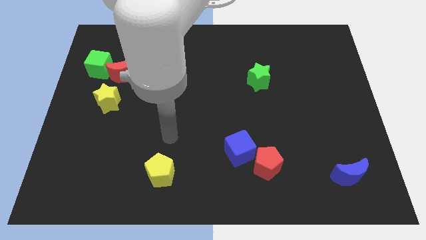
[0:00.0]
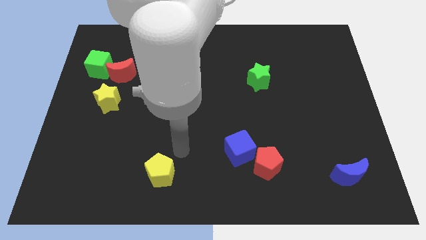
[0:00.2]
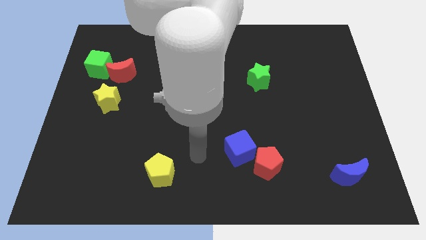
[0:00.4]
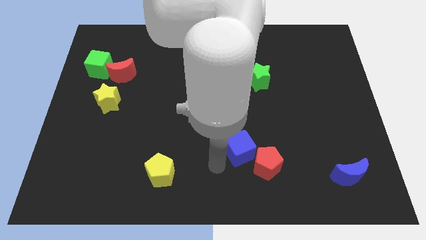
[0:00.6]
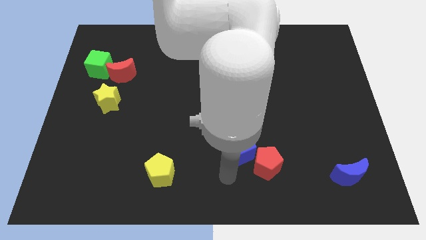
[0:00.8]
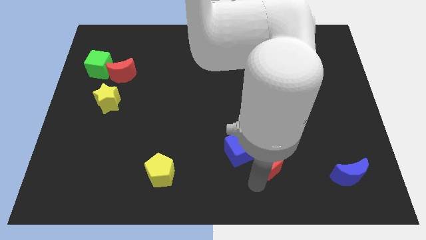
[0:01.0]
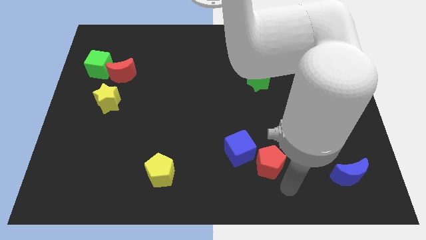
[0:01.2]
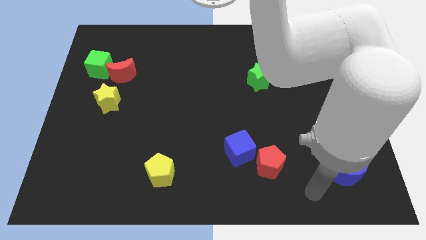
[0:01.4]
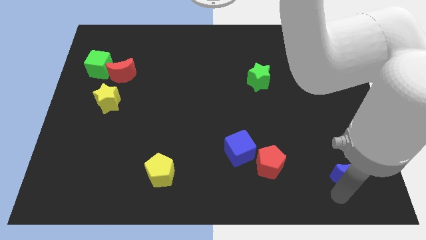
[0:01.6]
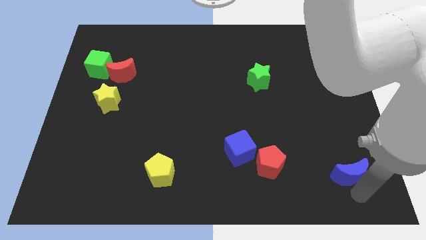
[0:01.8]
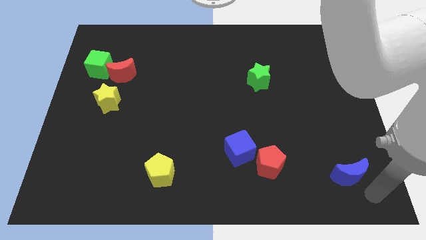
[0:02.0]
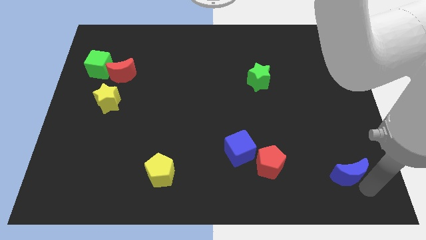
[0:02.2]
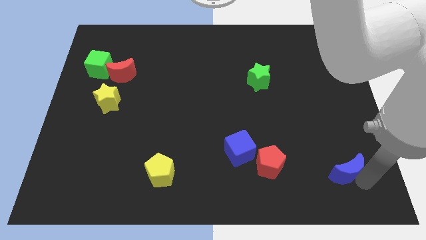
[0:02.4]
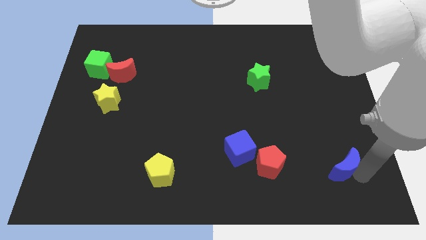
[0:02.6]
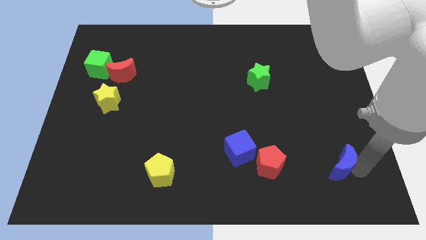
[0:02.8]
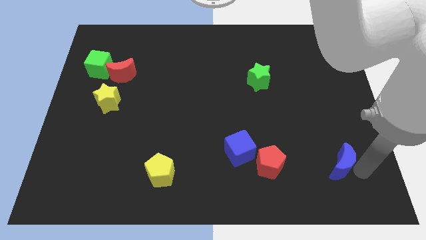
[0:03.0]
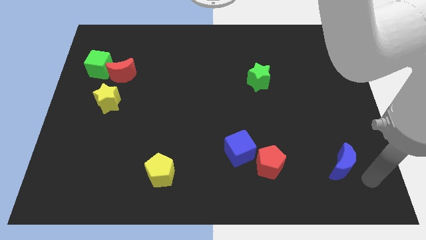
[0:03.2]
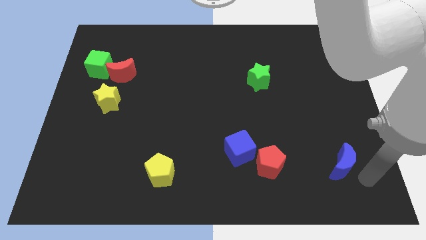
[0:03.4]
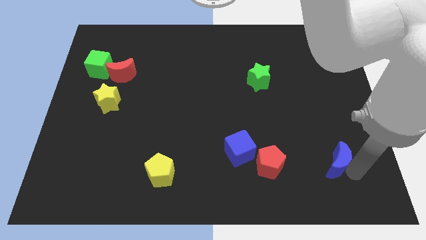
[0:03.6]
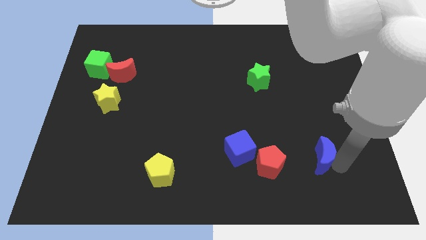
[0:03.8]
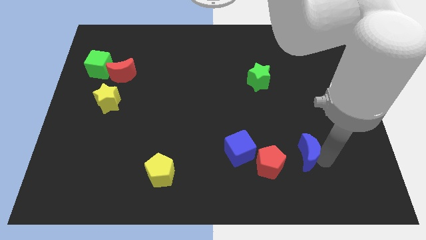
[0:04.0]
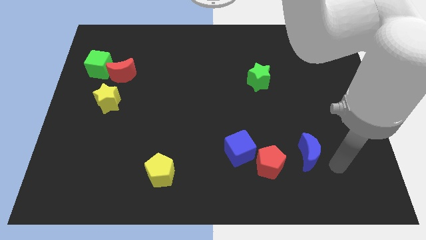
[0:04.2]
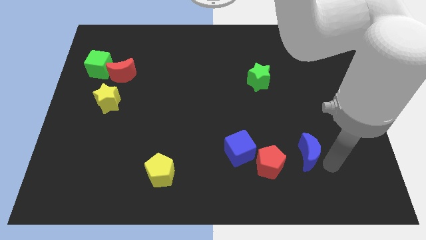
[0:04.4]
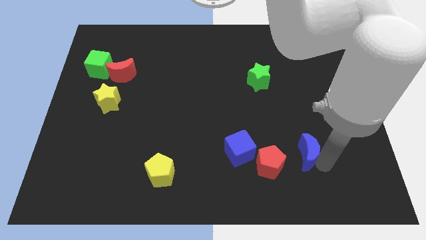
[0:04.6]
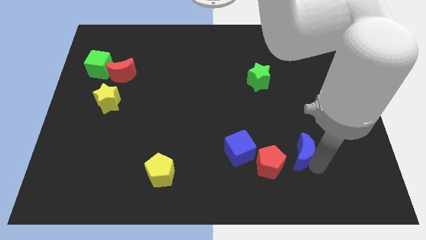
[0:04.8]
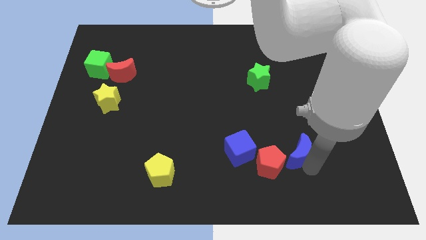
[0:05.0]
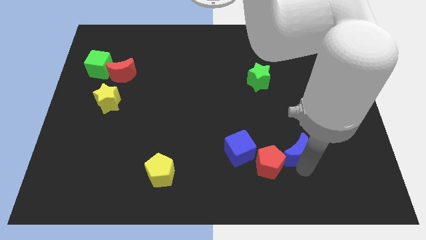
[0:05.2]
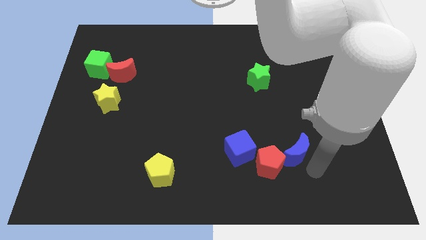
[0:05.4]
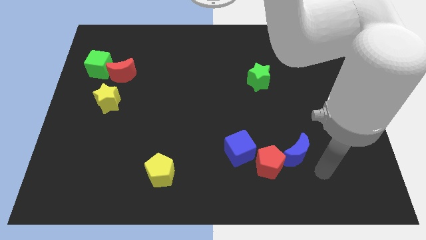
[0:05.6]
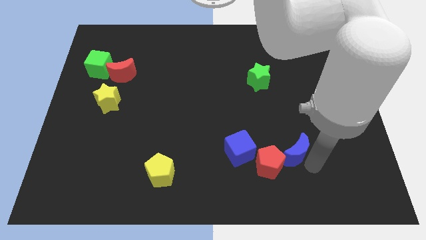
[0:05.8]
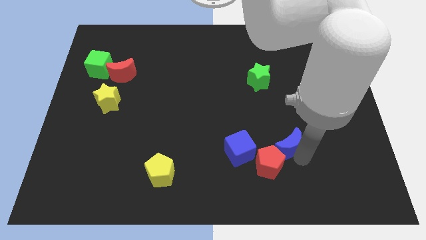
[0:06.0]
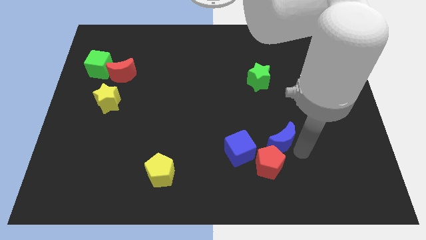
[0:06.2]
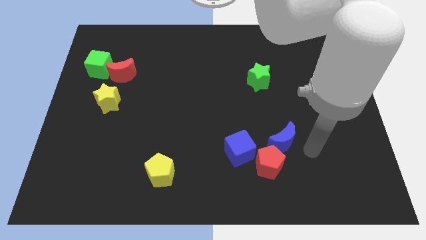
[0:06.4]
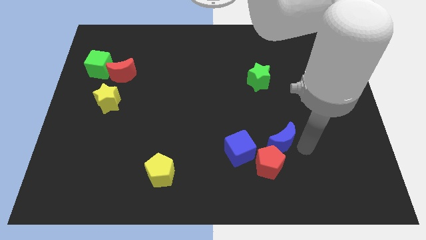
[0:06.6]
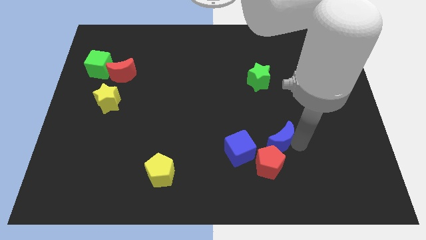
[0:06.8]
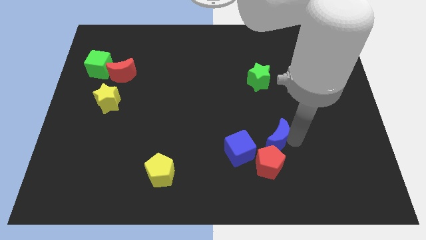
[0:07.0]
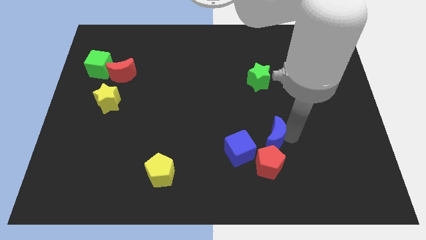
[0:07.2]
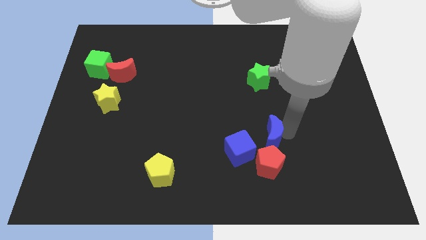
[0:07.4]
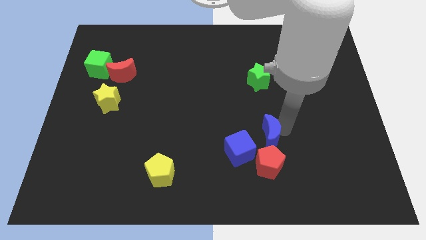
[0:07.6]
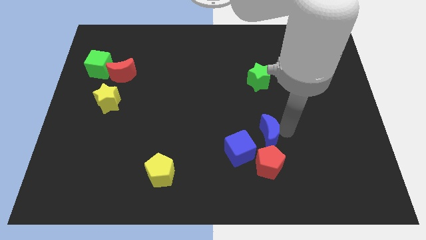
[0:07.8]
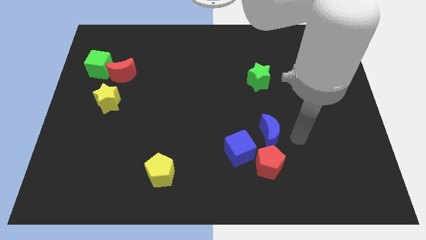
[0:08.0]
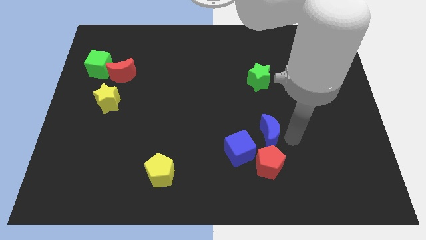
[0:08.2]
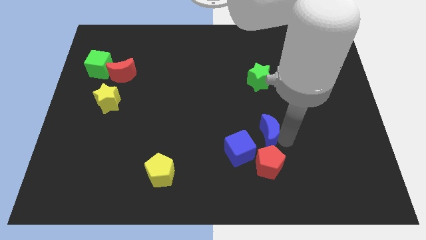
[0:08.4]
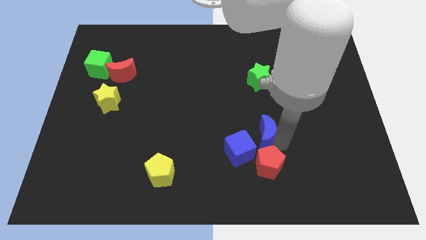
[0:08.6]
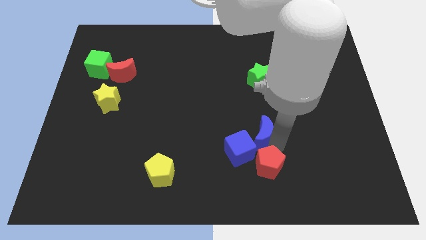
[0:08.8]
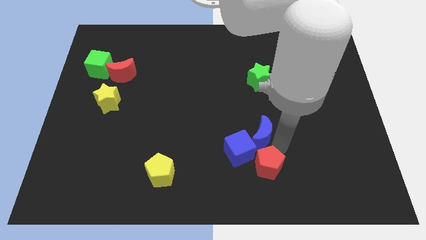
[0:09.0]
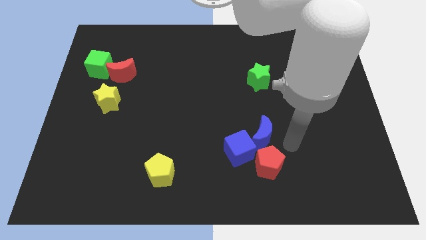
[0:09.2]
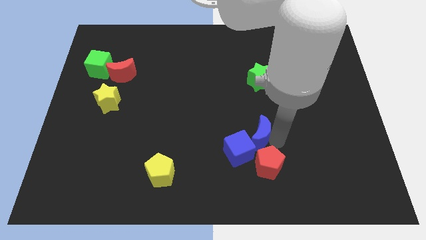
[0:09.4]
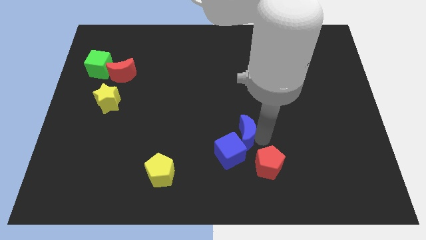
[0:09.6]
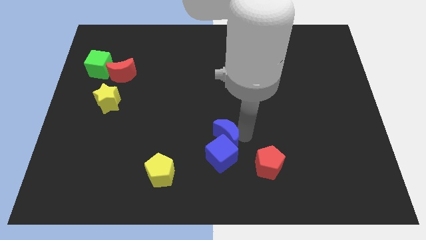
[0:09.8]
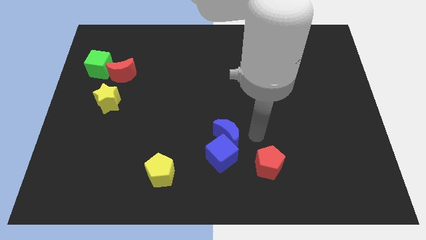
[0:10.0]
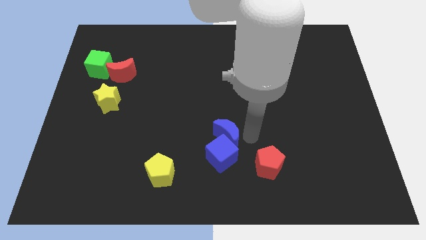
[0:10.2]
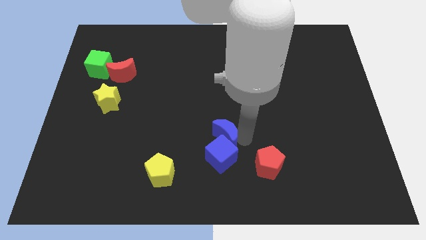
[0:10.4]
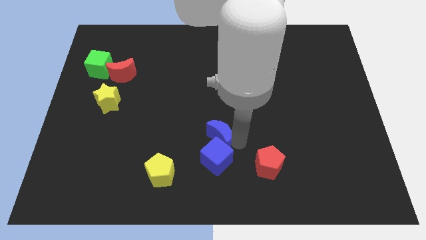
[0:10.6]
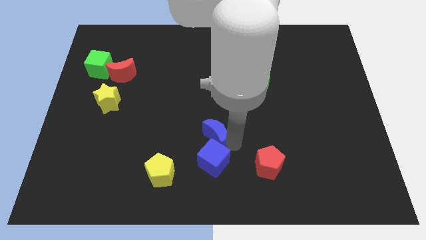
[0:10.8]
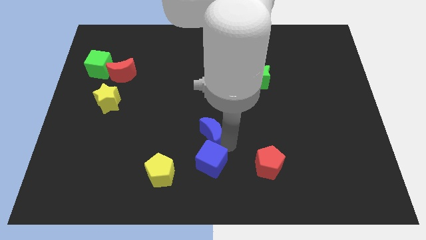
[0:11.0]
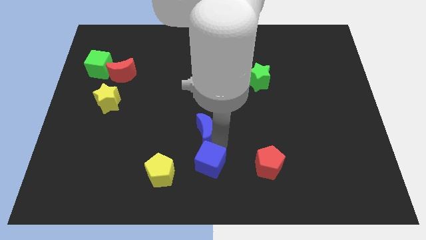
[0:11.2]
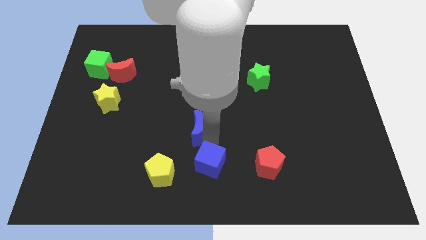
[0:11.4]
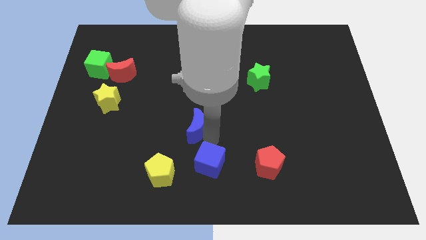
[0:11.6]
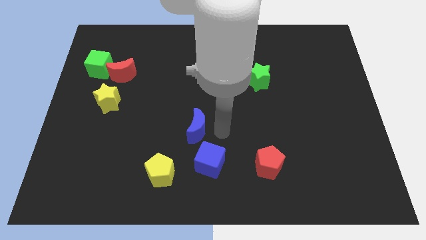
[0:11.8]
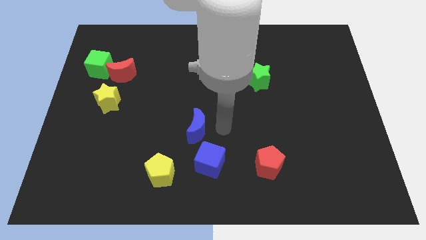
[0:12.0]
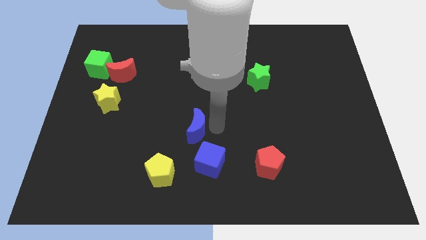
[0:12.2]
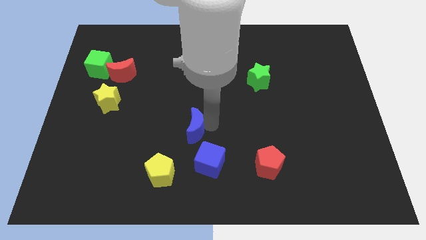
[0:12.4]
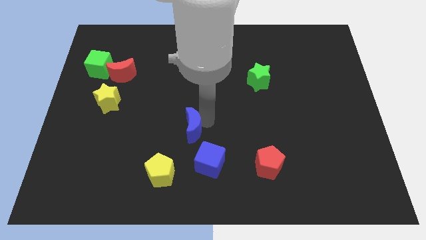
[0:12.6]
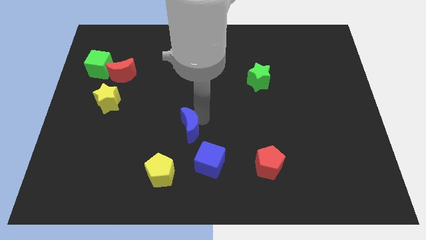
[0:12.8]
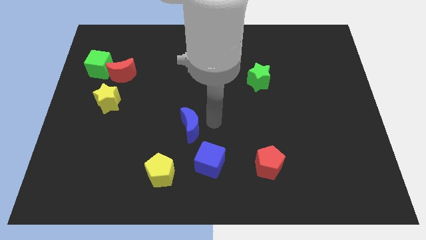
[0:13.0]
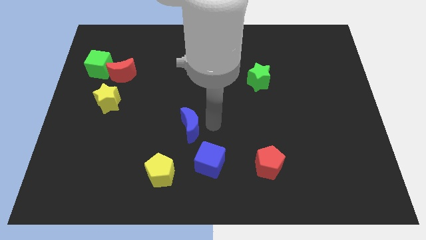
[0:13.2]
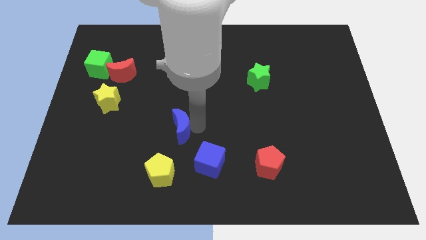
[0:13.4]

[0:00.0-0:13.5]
push the blue moon to the top side of the yellow pentagon

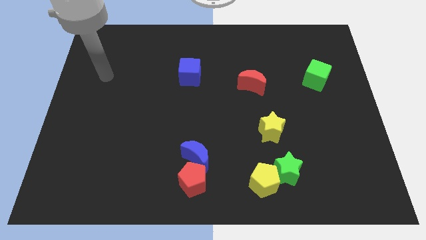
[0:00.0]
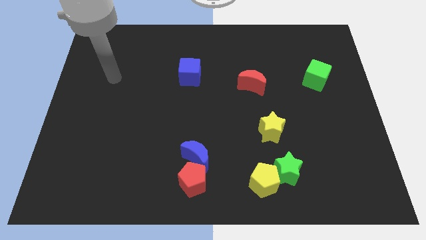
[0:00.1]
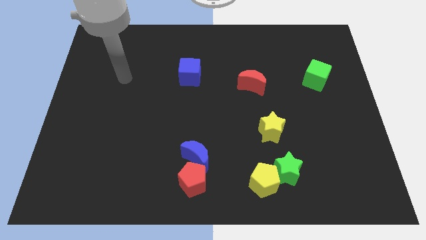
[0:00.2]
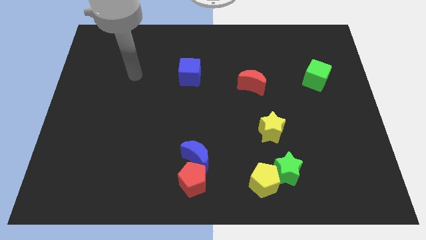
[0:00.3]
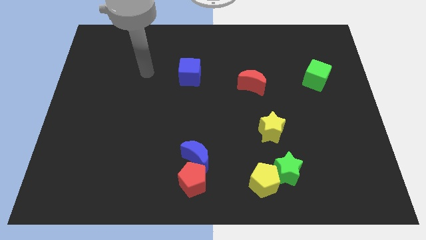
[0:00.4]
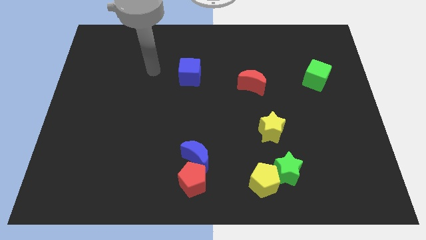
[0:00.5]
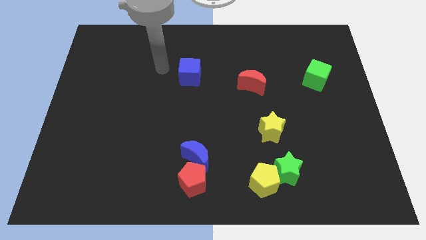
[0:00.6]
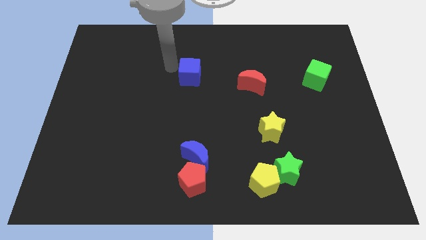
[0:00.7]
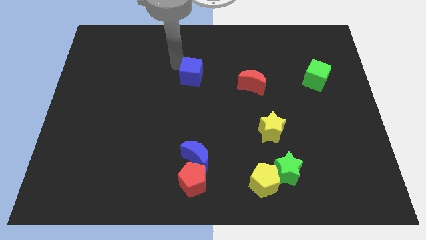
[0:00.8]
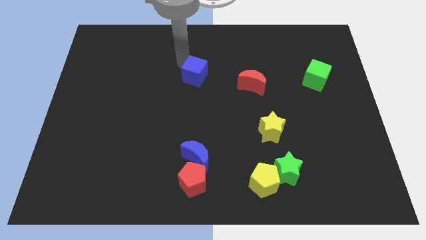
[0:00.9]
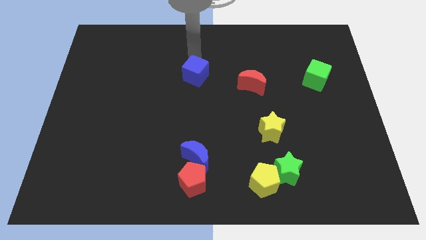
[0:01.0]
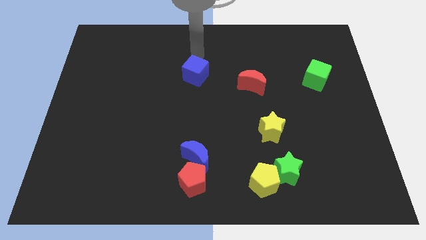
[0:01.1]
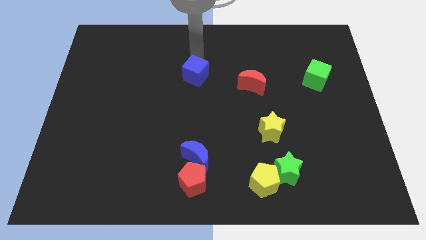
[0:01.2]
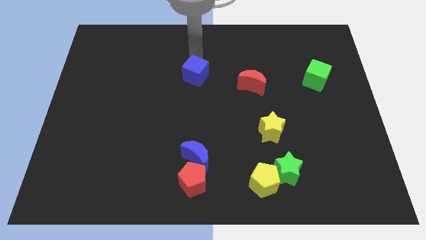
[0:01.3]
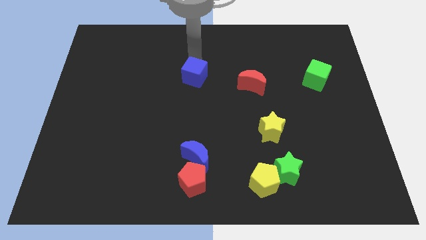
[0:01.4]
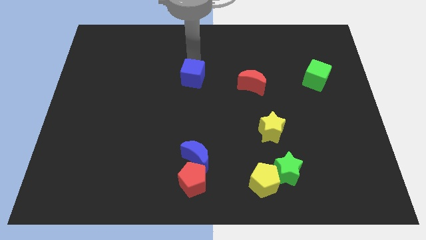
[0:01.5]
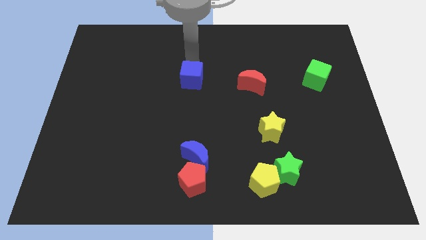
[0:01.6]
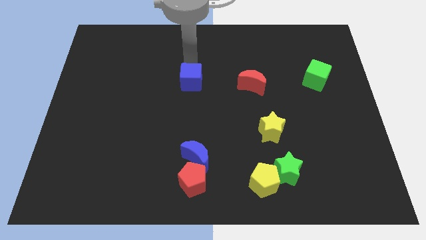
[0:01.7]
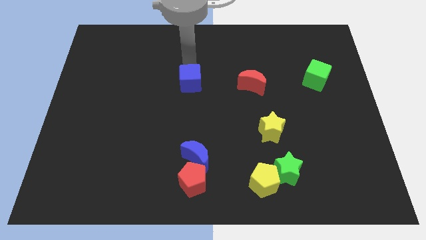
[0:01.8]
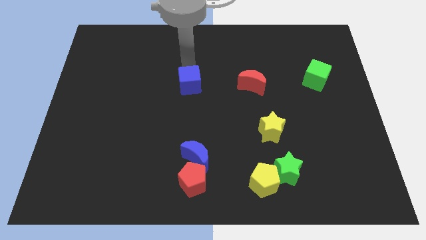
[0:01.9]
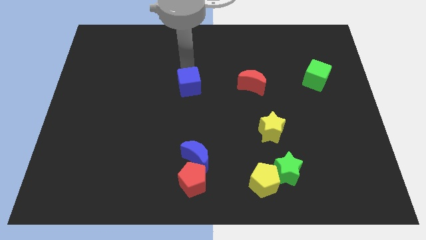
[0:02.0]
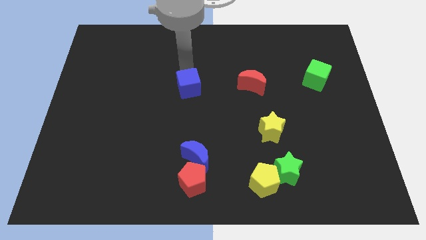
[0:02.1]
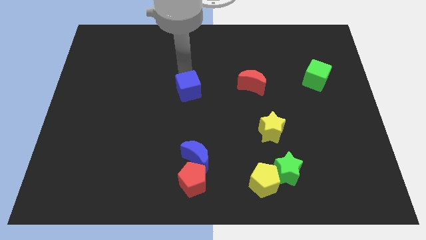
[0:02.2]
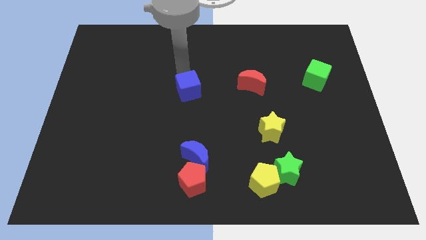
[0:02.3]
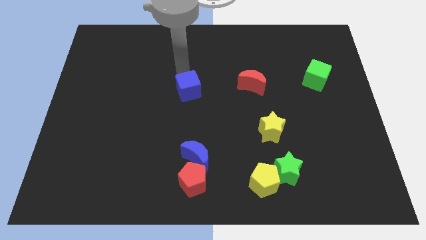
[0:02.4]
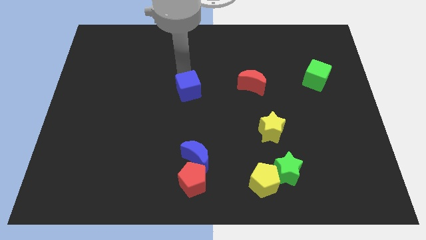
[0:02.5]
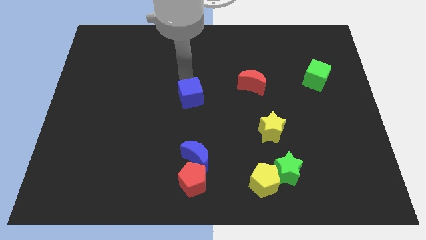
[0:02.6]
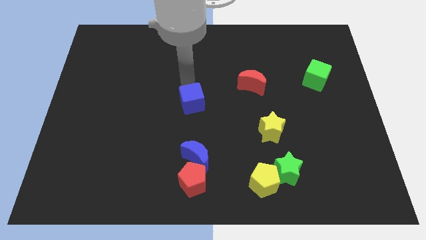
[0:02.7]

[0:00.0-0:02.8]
slide the blue cube above the blue moon
